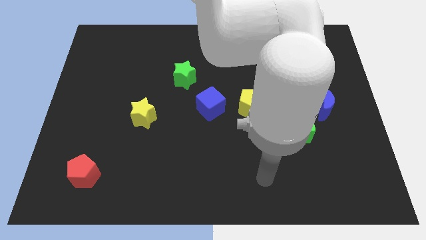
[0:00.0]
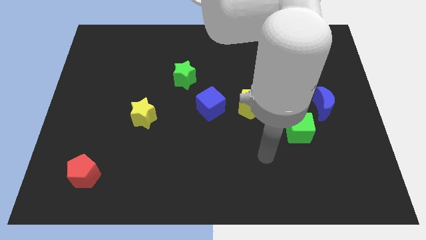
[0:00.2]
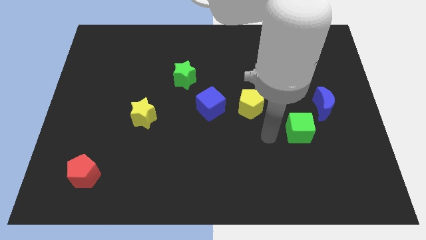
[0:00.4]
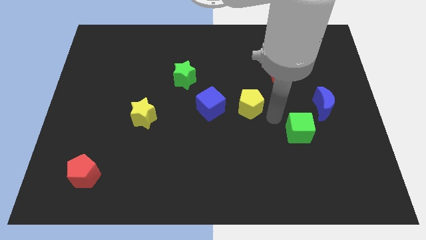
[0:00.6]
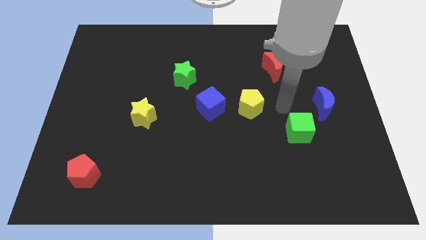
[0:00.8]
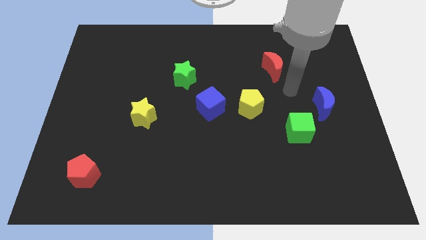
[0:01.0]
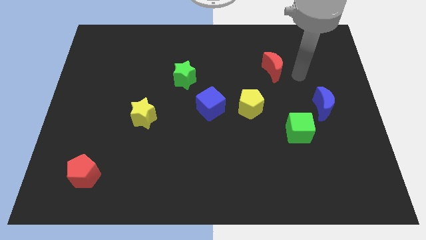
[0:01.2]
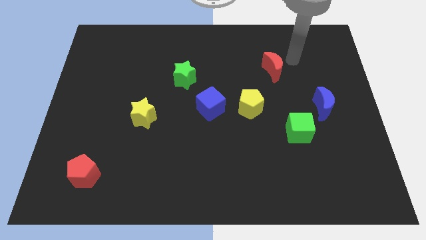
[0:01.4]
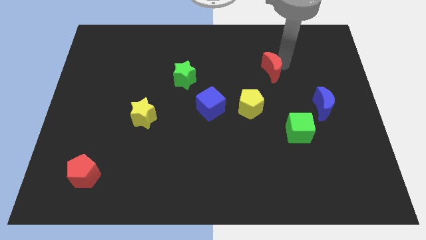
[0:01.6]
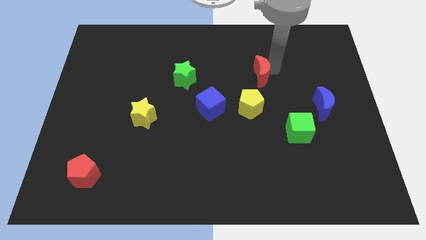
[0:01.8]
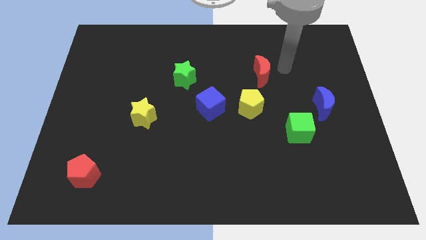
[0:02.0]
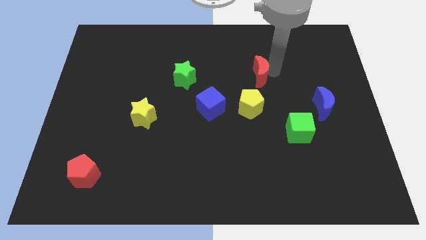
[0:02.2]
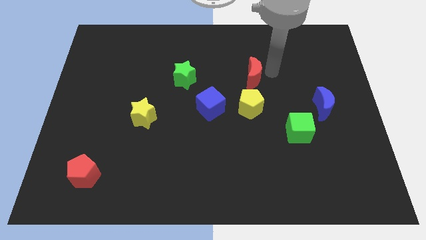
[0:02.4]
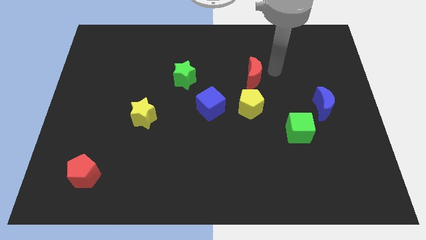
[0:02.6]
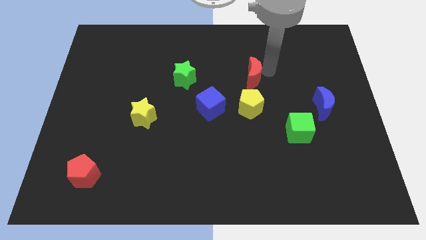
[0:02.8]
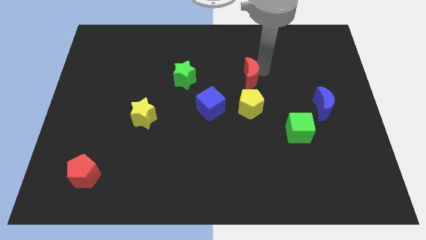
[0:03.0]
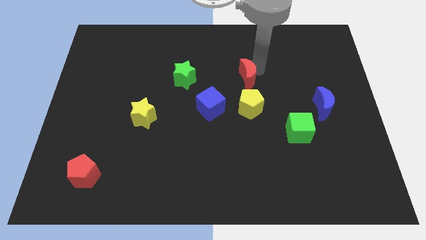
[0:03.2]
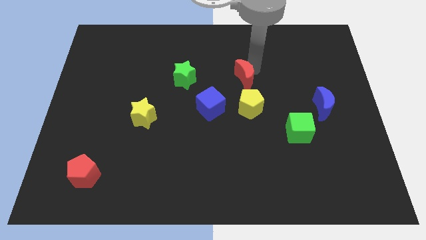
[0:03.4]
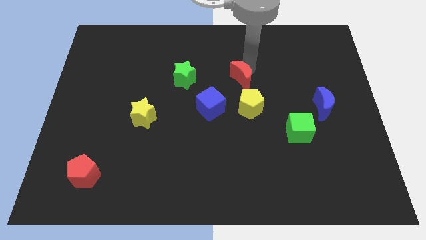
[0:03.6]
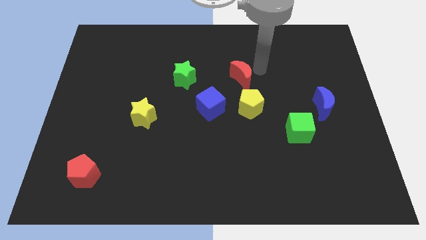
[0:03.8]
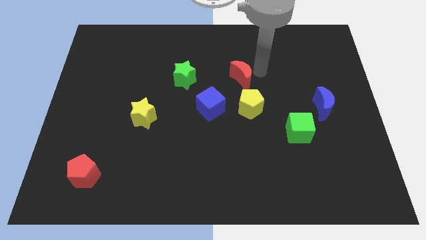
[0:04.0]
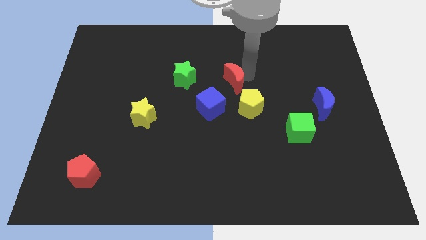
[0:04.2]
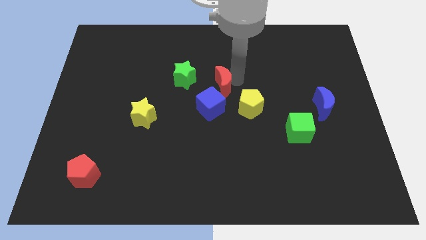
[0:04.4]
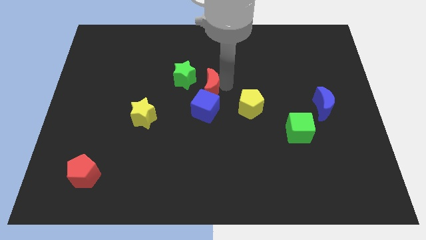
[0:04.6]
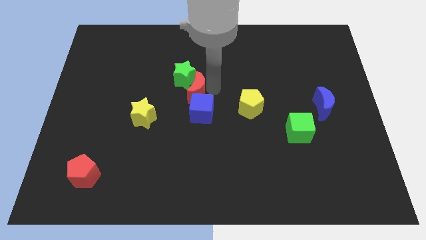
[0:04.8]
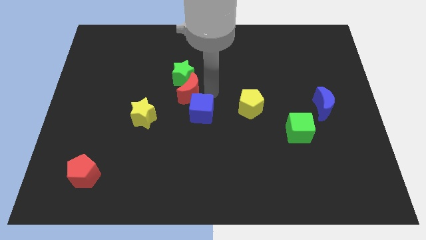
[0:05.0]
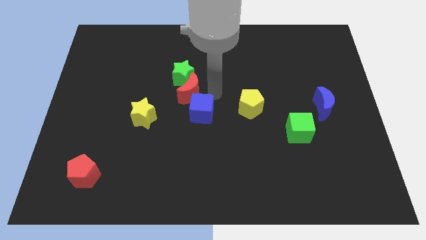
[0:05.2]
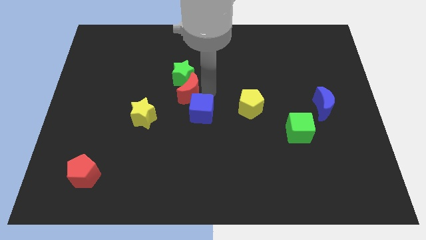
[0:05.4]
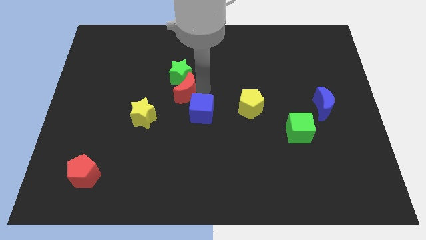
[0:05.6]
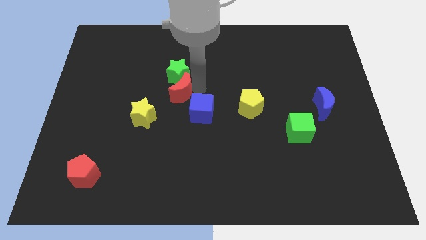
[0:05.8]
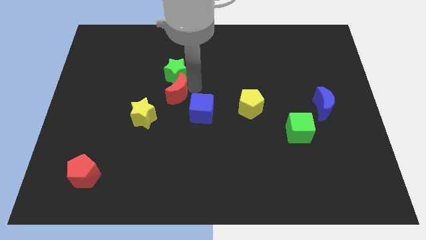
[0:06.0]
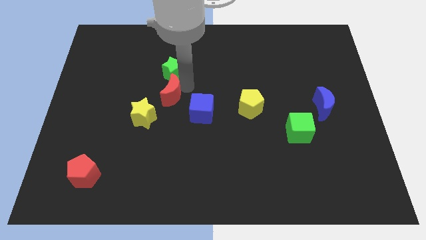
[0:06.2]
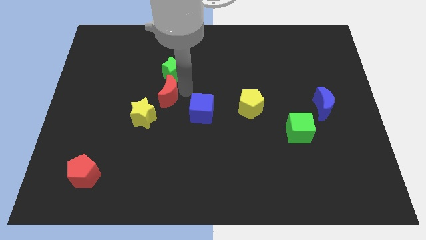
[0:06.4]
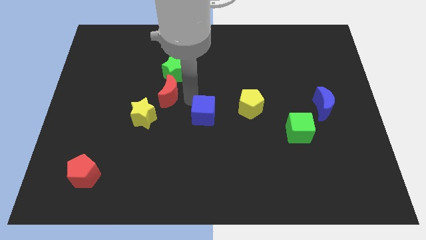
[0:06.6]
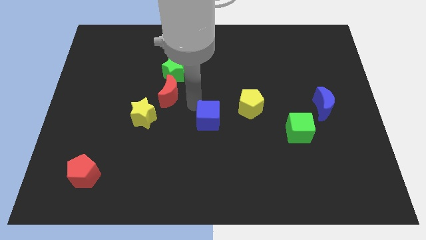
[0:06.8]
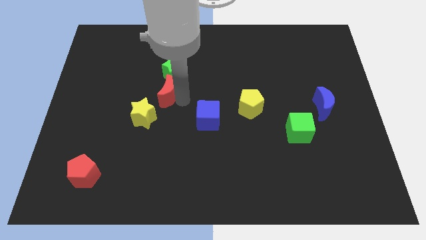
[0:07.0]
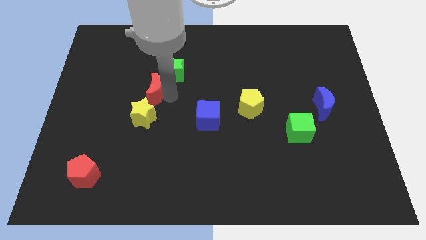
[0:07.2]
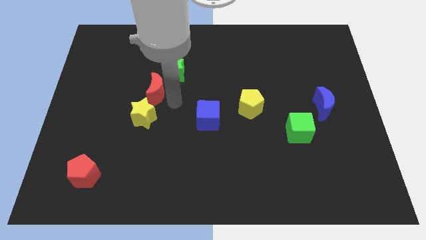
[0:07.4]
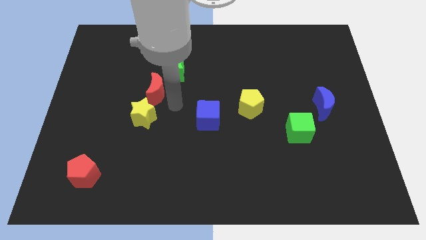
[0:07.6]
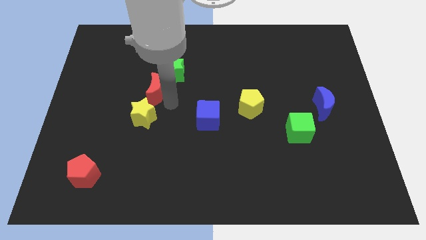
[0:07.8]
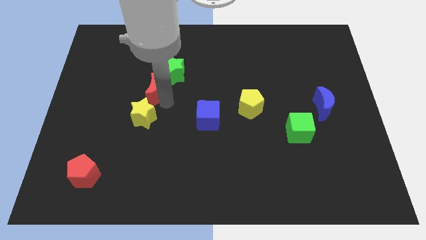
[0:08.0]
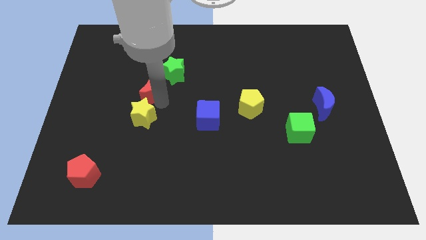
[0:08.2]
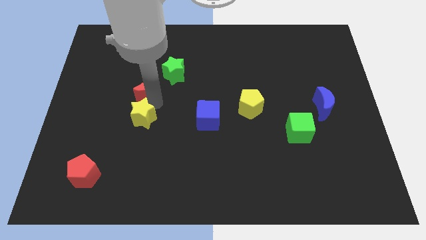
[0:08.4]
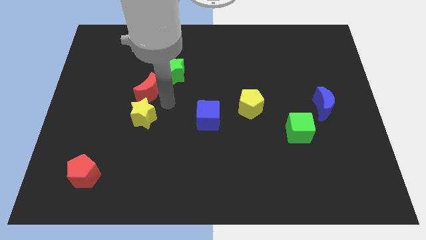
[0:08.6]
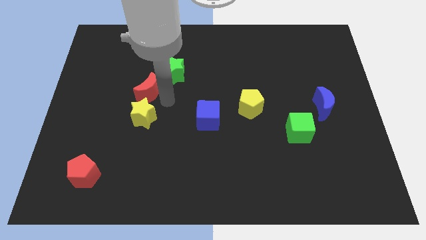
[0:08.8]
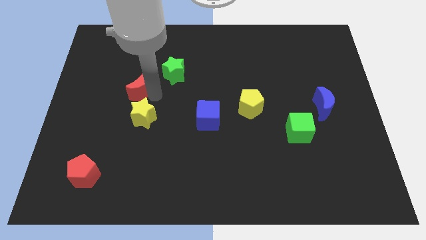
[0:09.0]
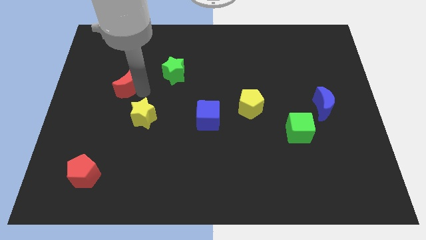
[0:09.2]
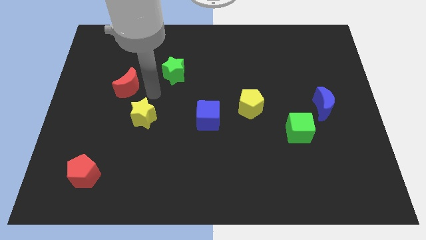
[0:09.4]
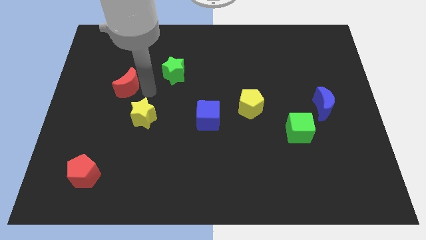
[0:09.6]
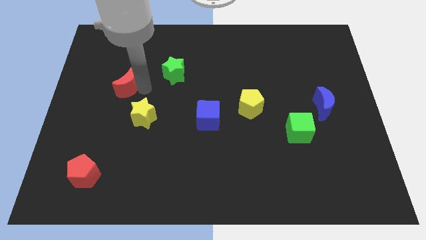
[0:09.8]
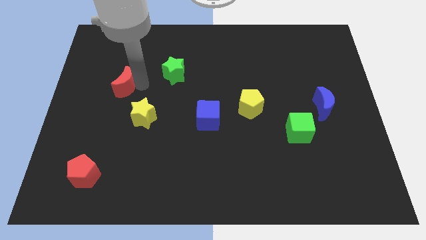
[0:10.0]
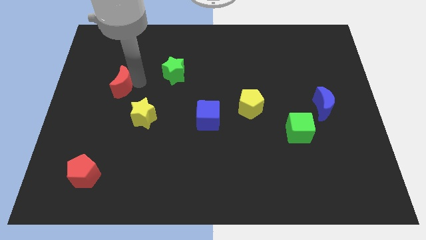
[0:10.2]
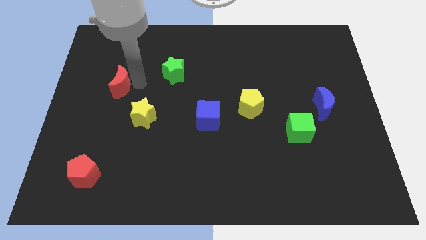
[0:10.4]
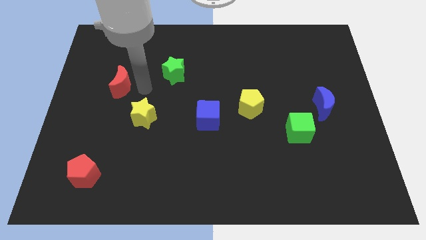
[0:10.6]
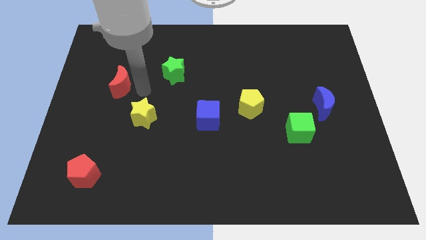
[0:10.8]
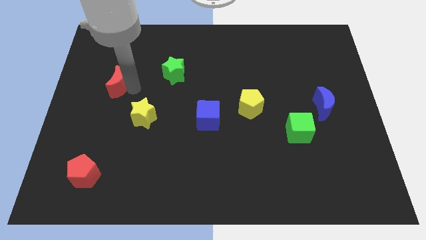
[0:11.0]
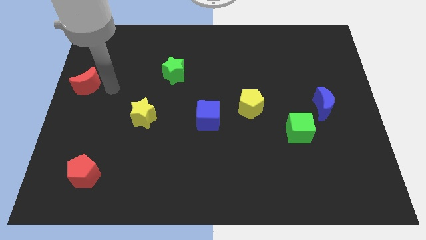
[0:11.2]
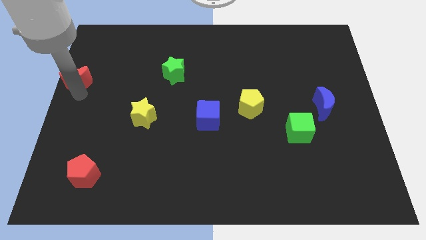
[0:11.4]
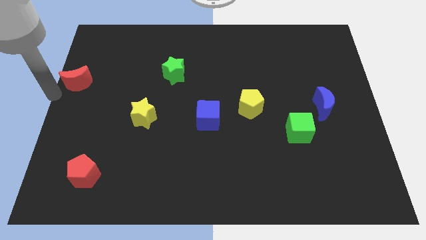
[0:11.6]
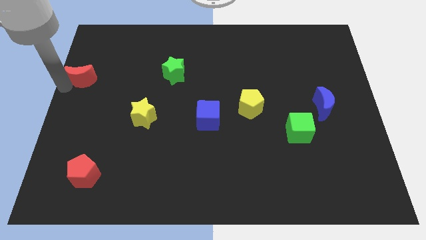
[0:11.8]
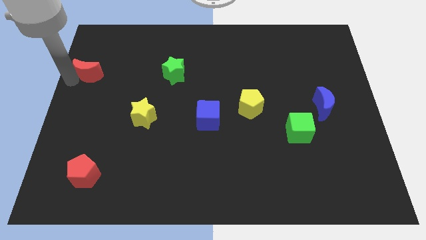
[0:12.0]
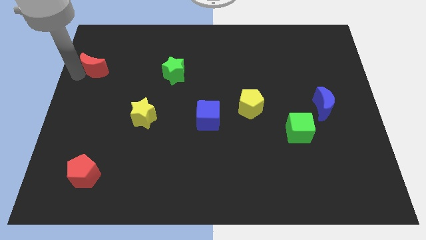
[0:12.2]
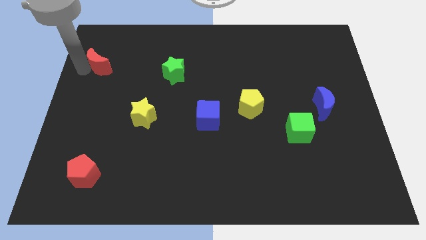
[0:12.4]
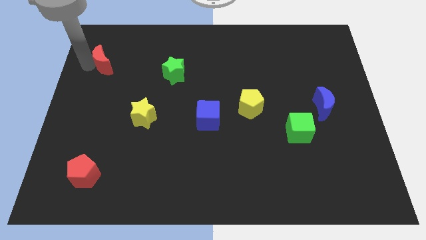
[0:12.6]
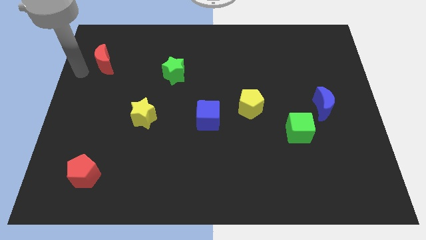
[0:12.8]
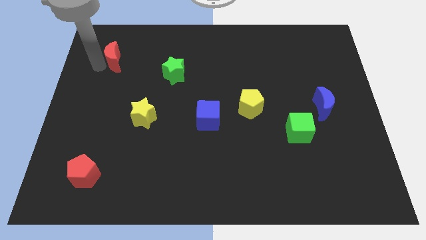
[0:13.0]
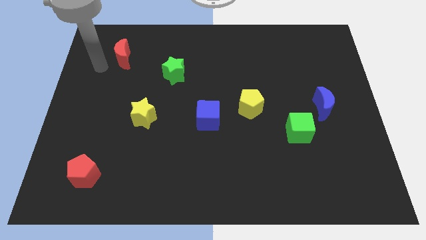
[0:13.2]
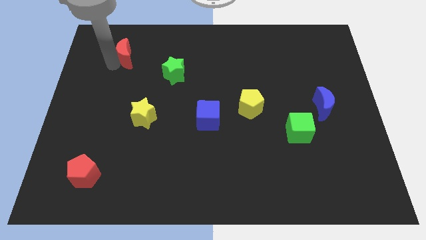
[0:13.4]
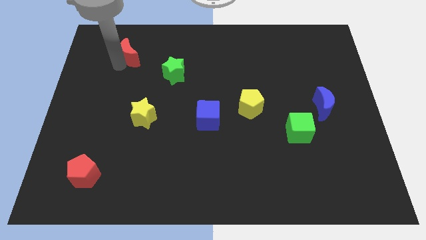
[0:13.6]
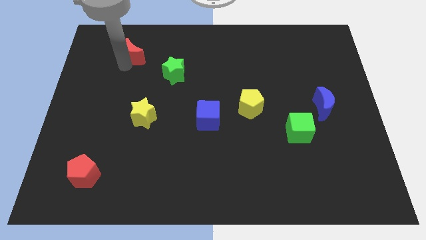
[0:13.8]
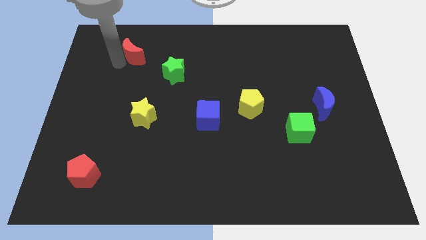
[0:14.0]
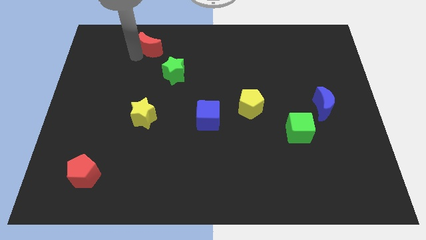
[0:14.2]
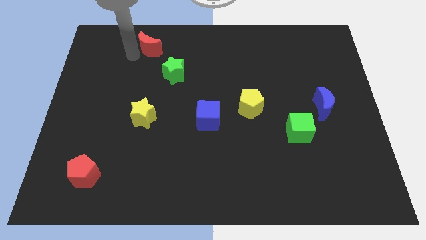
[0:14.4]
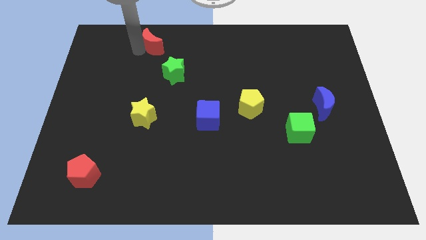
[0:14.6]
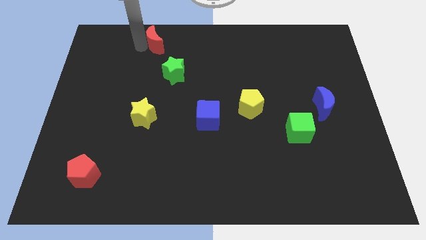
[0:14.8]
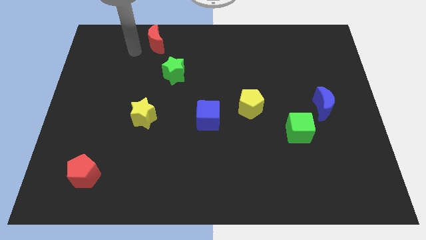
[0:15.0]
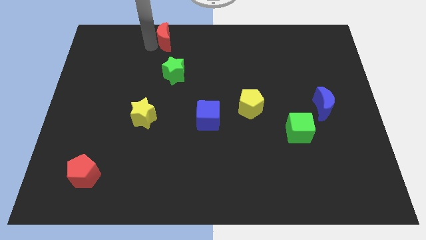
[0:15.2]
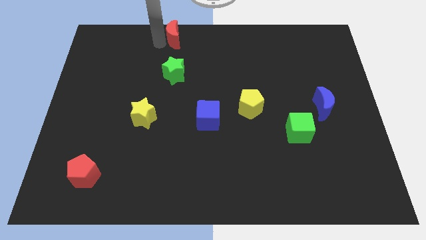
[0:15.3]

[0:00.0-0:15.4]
move the red moon to the top
